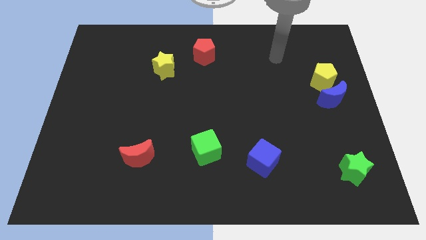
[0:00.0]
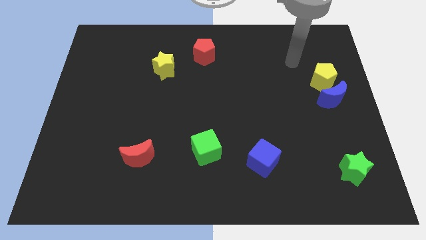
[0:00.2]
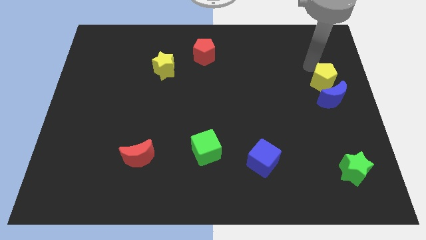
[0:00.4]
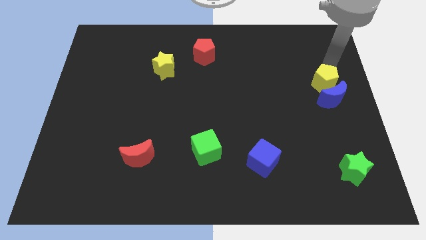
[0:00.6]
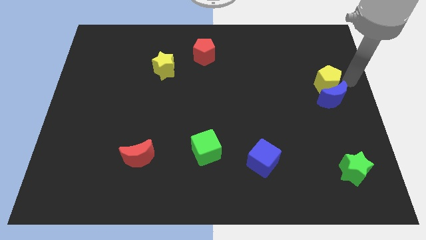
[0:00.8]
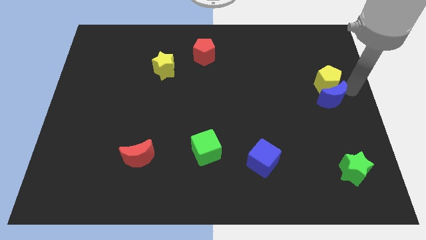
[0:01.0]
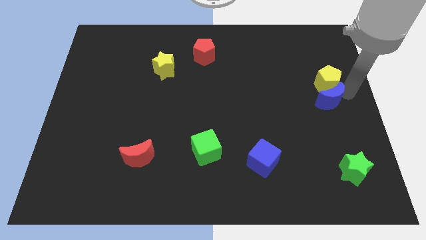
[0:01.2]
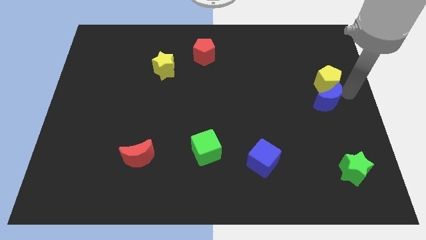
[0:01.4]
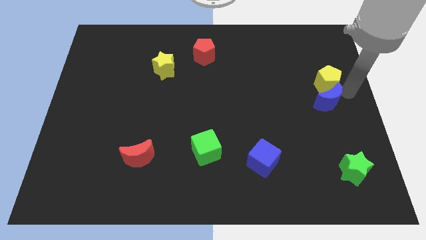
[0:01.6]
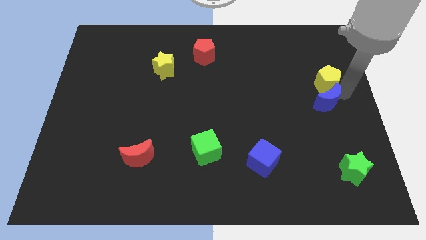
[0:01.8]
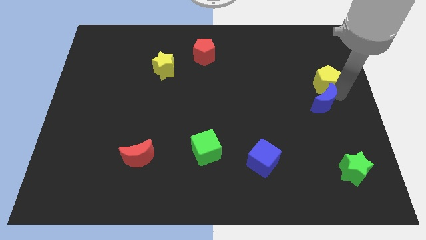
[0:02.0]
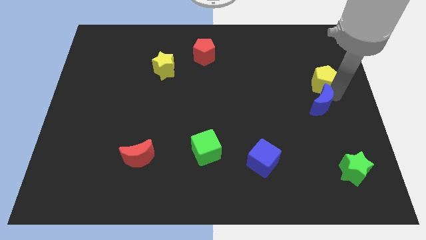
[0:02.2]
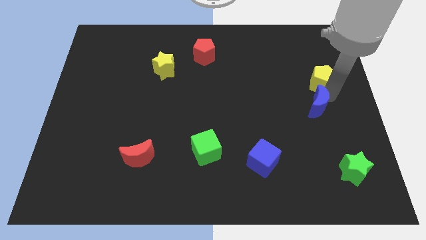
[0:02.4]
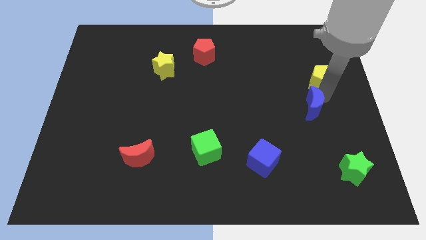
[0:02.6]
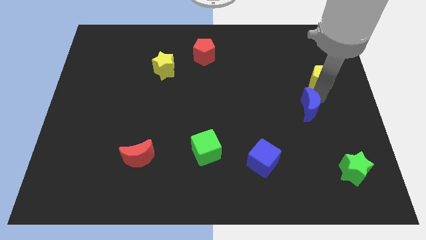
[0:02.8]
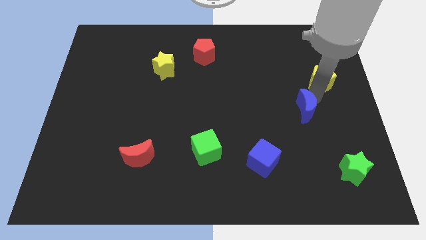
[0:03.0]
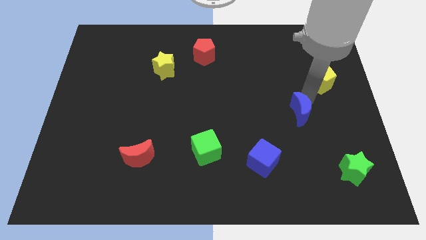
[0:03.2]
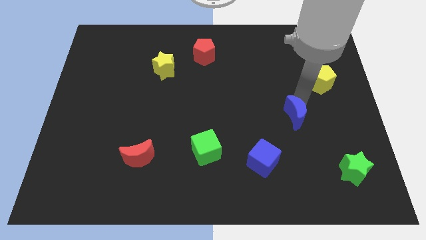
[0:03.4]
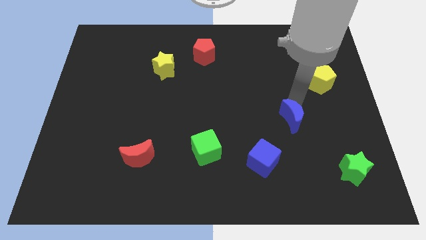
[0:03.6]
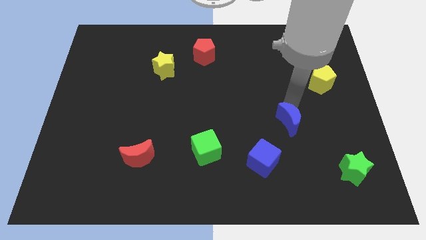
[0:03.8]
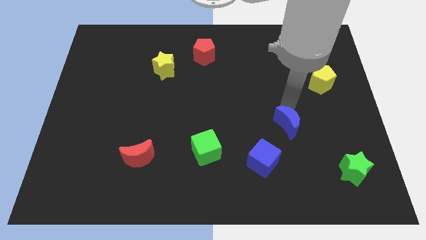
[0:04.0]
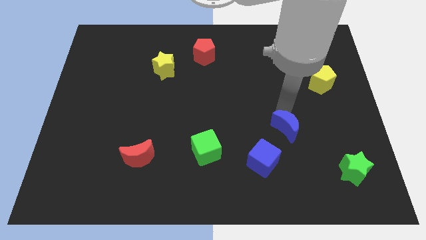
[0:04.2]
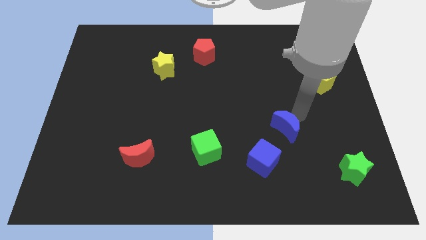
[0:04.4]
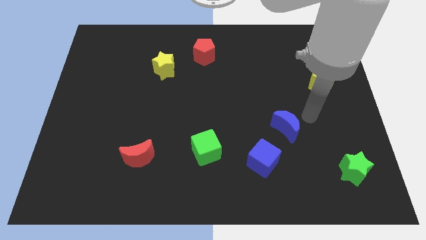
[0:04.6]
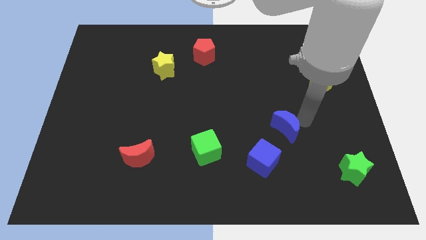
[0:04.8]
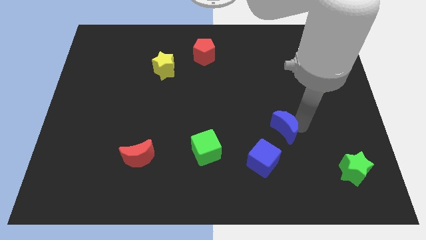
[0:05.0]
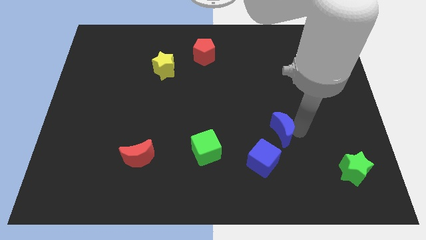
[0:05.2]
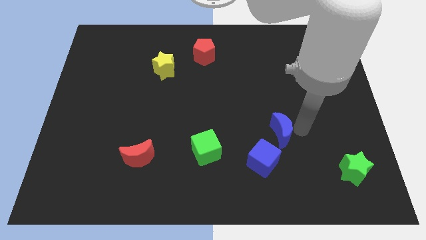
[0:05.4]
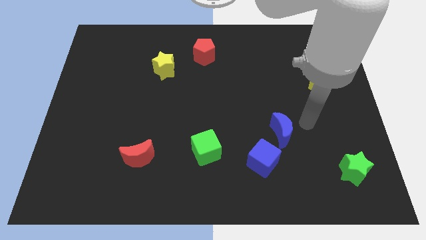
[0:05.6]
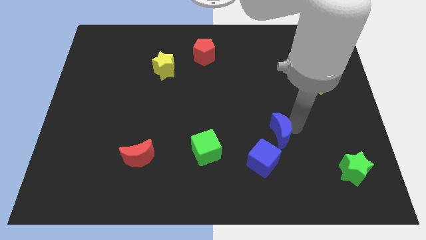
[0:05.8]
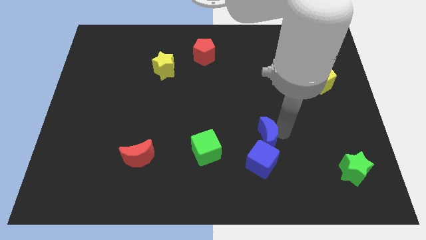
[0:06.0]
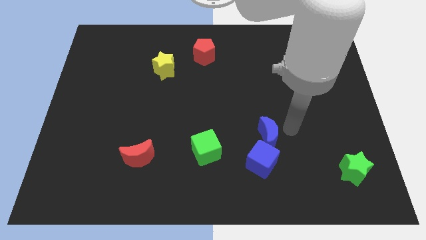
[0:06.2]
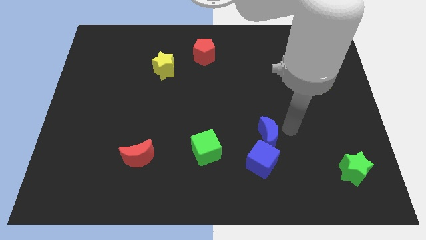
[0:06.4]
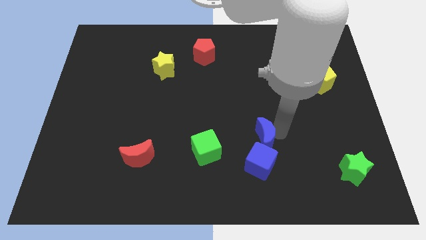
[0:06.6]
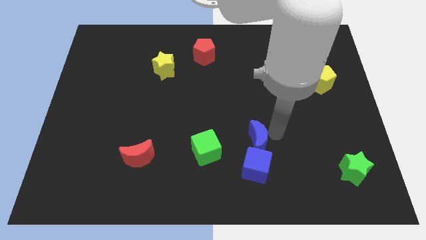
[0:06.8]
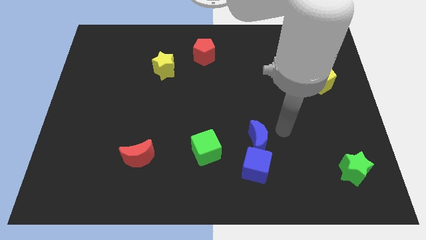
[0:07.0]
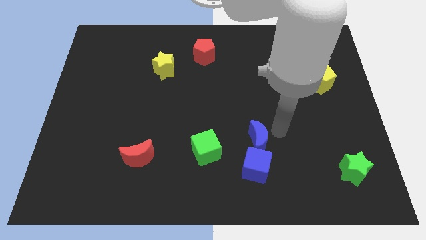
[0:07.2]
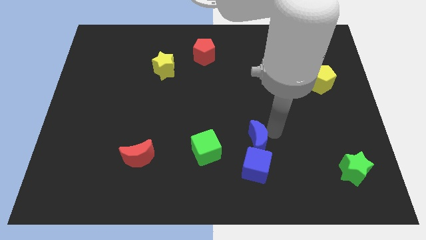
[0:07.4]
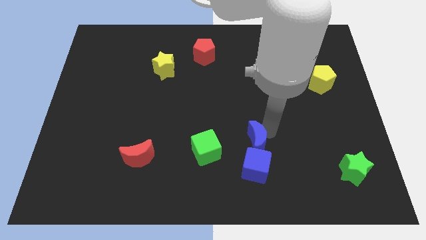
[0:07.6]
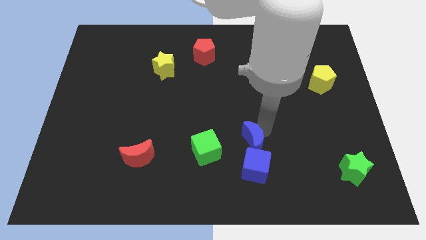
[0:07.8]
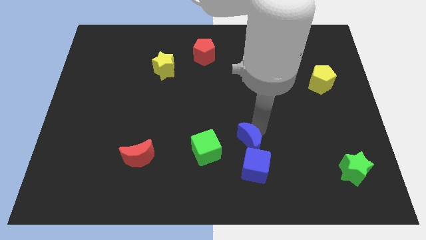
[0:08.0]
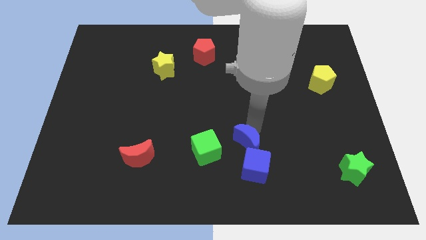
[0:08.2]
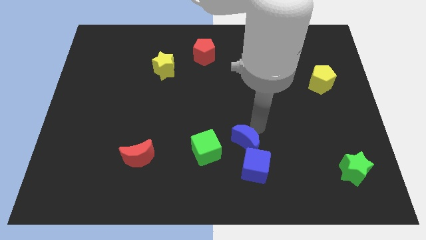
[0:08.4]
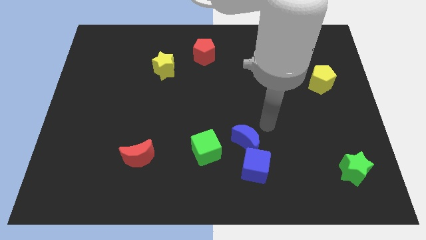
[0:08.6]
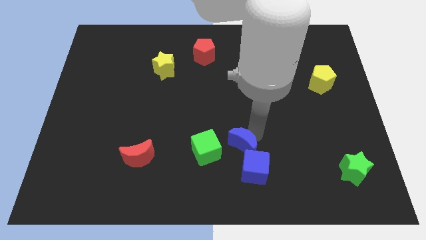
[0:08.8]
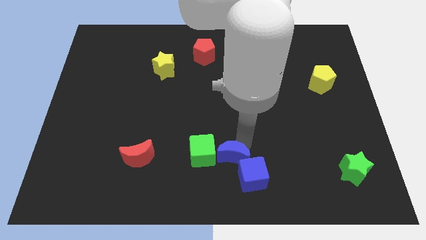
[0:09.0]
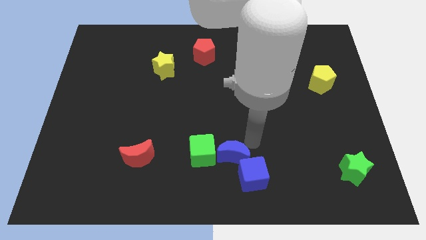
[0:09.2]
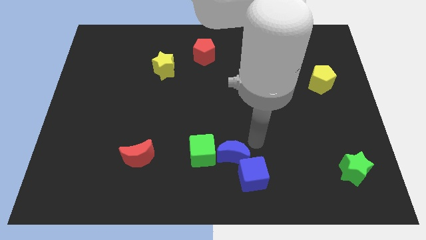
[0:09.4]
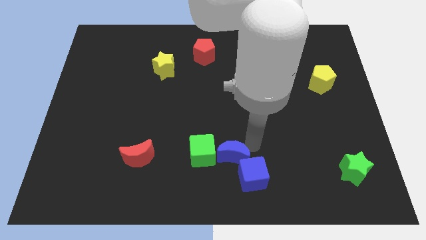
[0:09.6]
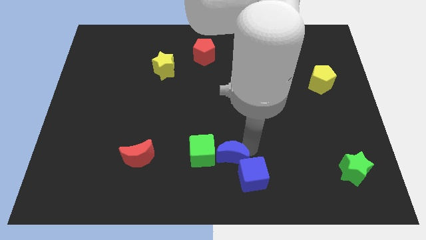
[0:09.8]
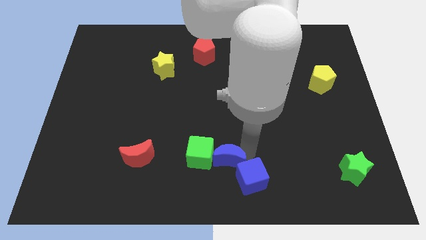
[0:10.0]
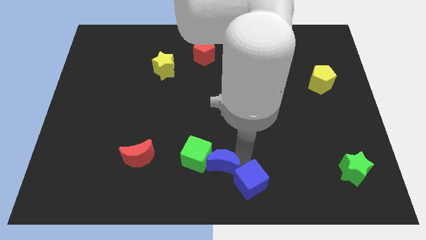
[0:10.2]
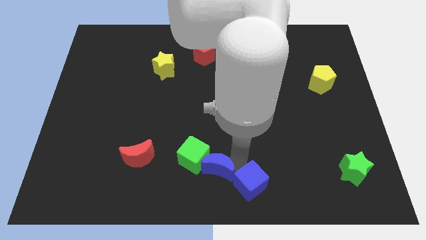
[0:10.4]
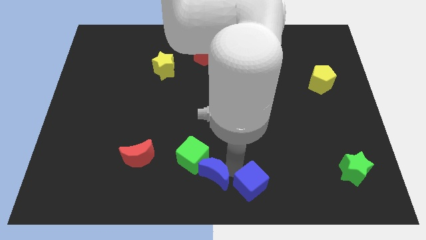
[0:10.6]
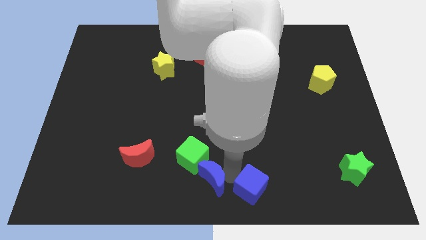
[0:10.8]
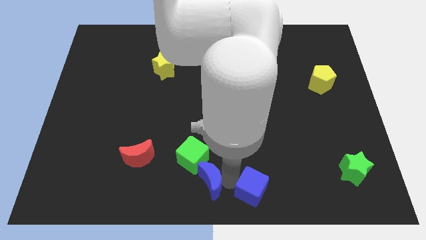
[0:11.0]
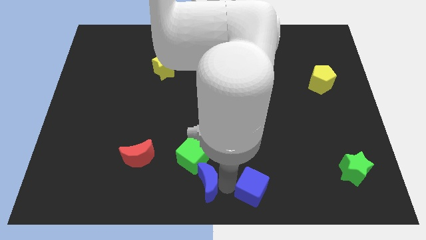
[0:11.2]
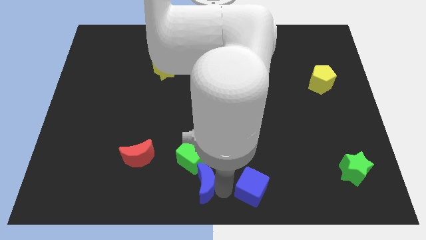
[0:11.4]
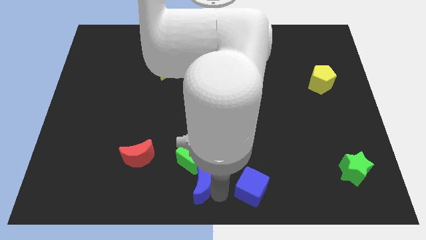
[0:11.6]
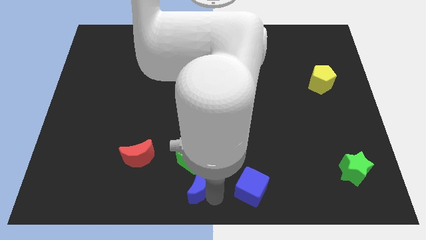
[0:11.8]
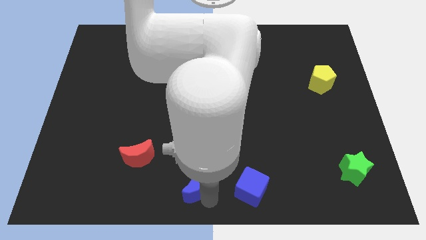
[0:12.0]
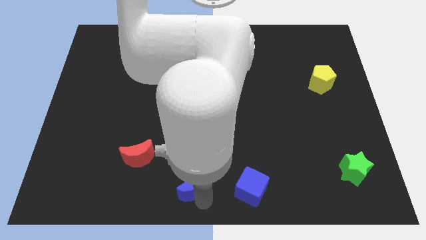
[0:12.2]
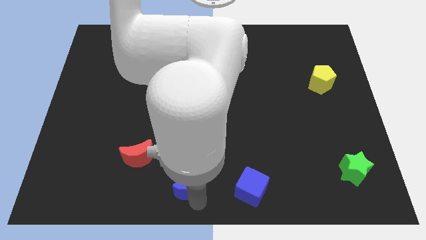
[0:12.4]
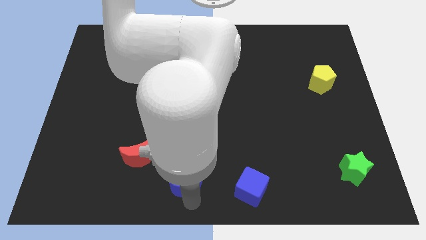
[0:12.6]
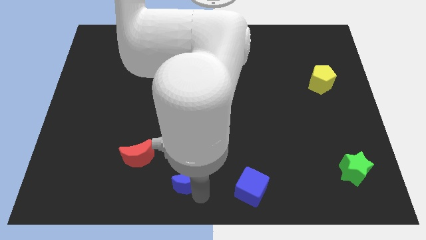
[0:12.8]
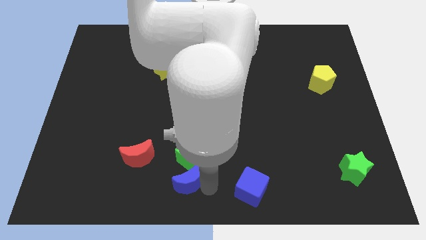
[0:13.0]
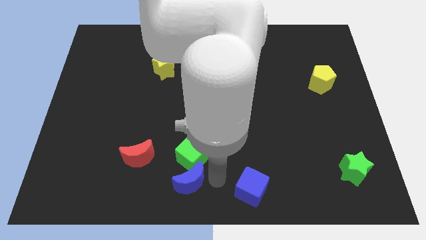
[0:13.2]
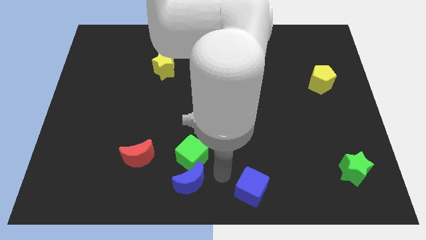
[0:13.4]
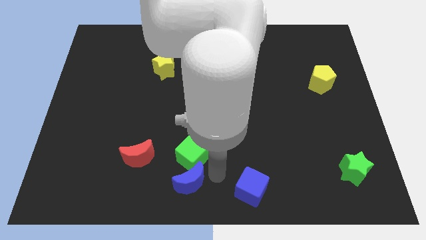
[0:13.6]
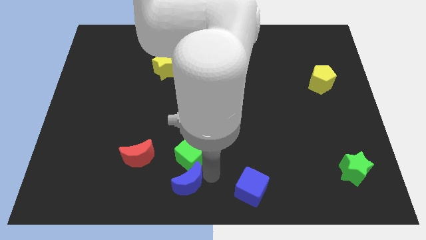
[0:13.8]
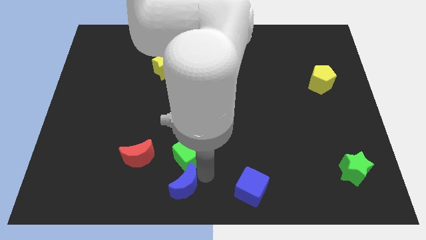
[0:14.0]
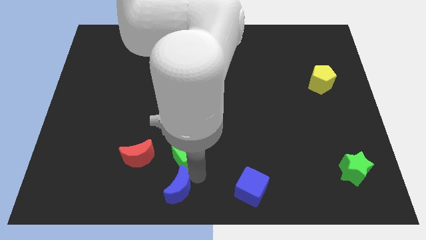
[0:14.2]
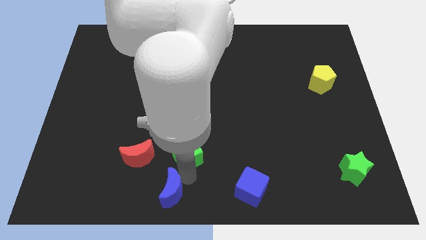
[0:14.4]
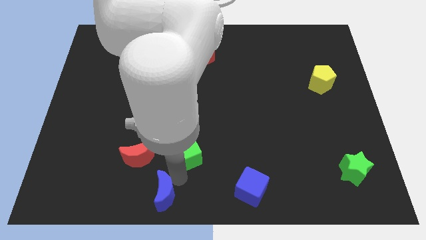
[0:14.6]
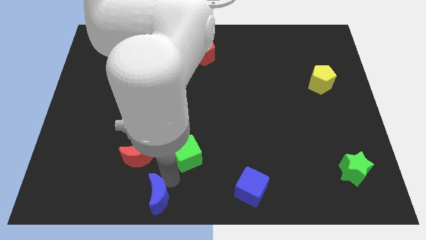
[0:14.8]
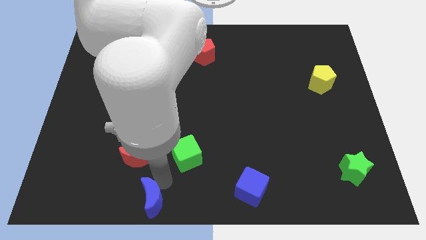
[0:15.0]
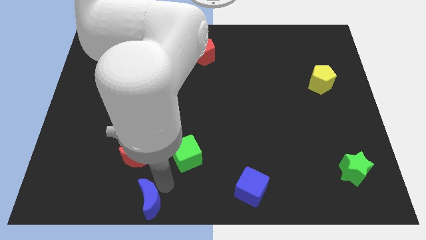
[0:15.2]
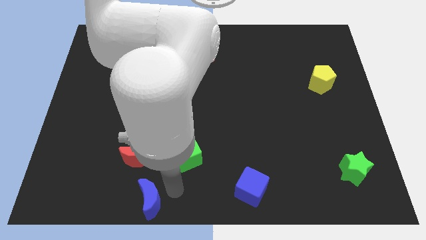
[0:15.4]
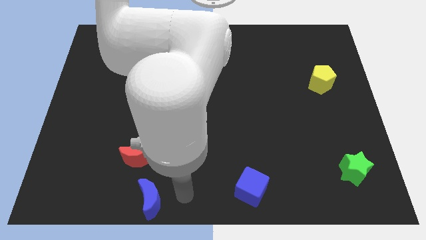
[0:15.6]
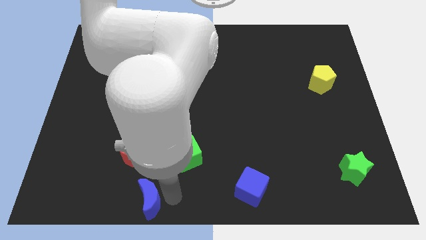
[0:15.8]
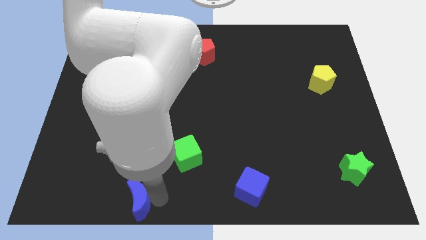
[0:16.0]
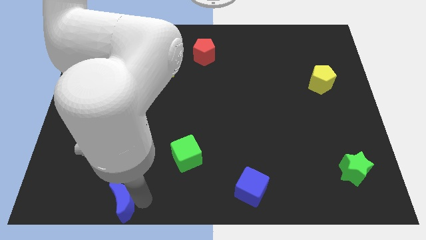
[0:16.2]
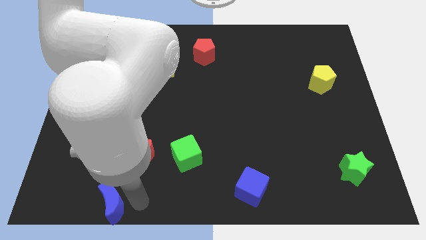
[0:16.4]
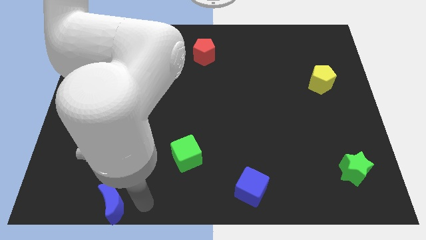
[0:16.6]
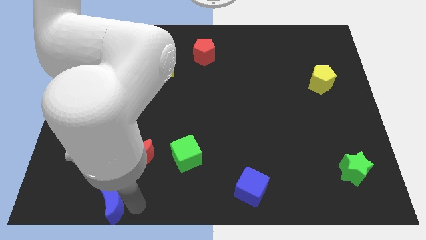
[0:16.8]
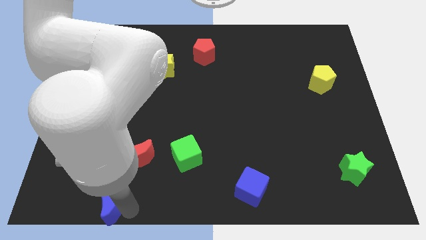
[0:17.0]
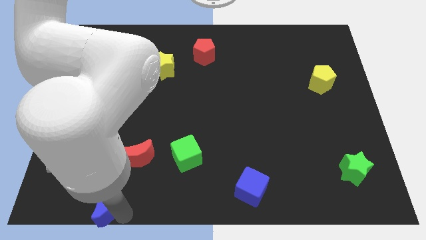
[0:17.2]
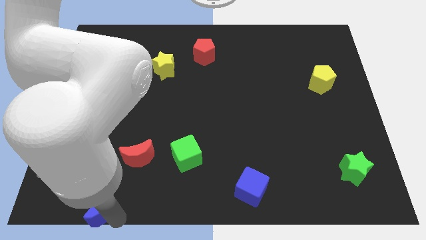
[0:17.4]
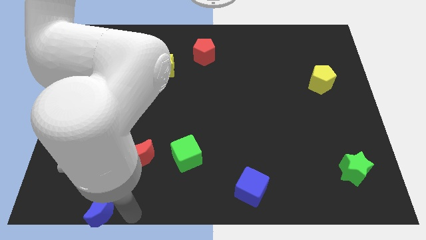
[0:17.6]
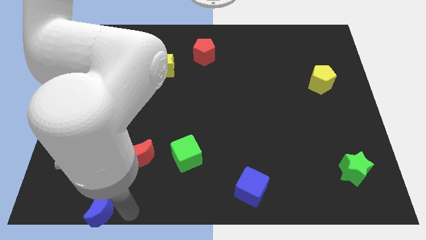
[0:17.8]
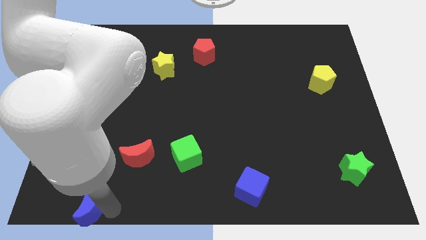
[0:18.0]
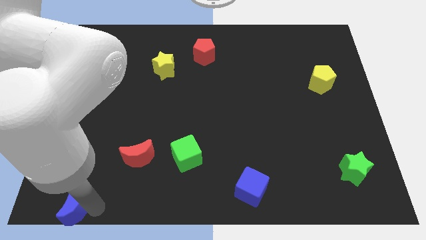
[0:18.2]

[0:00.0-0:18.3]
put the blue moon to the bottom left
